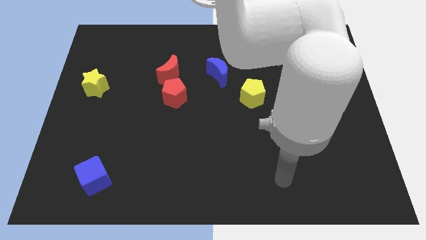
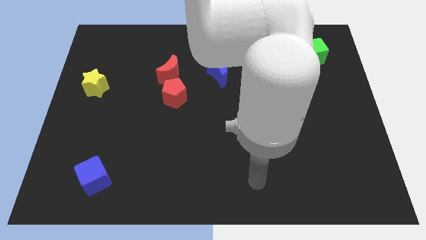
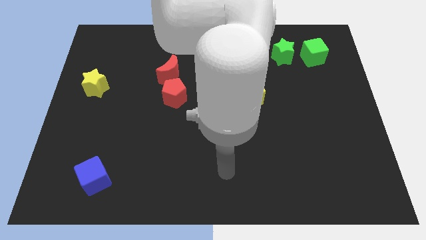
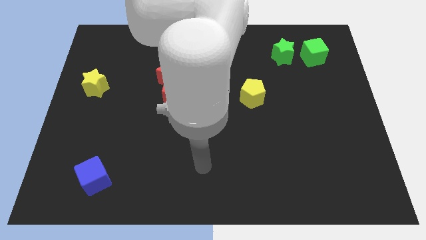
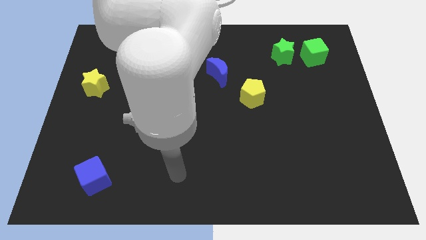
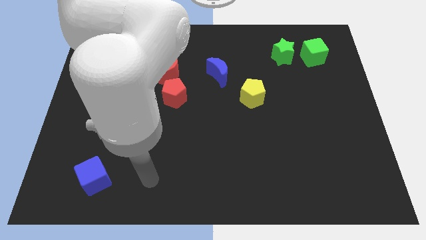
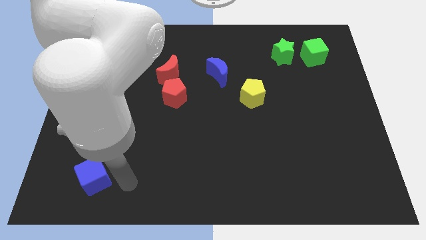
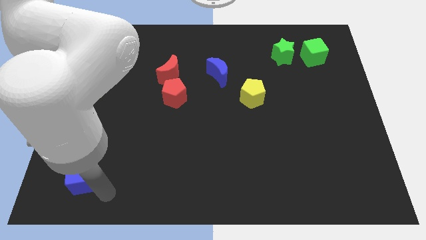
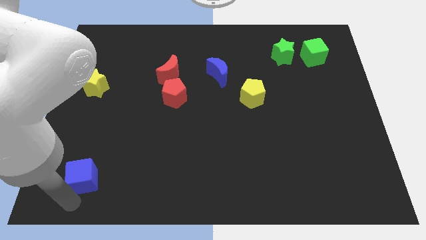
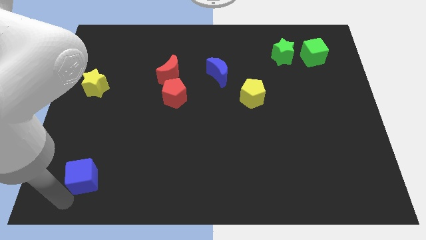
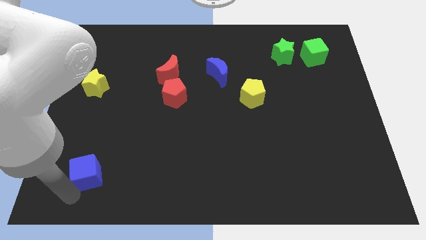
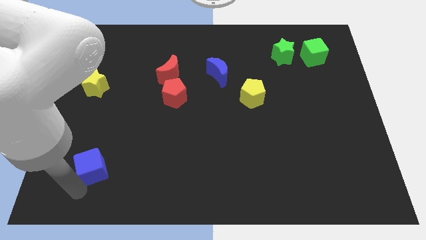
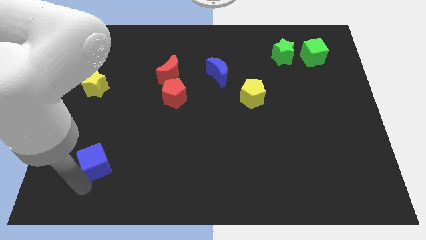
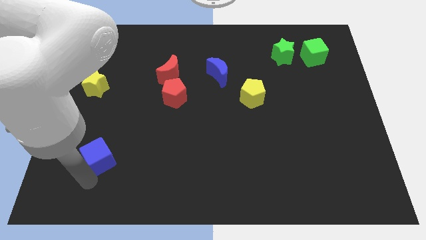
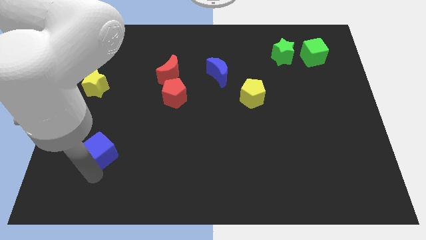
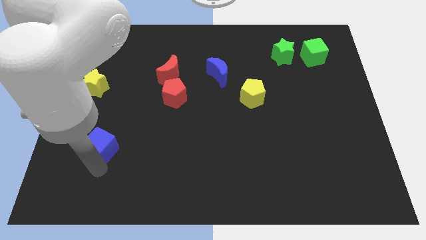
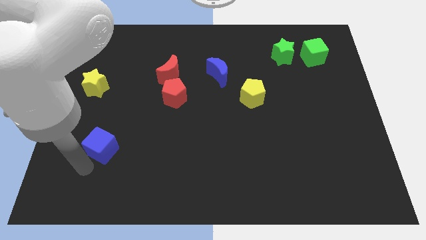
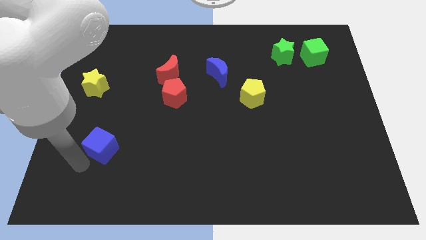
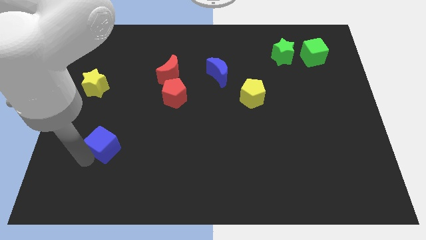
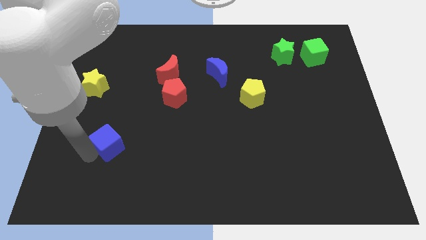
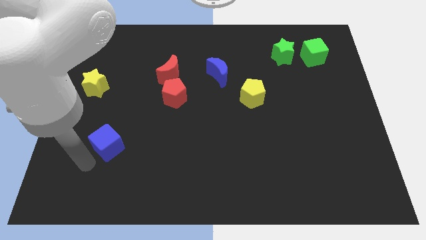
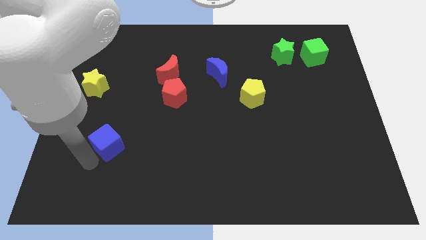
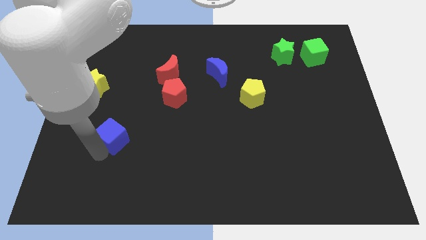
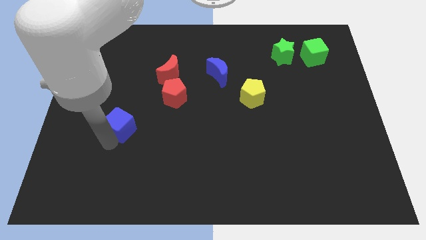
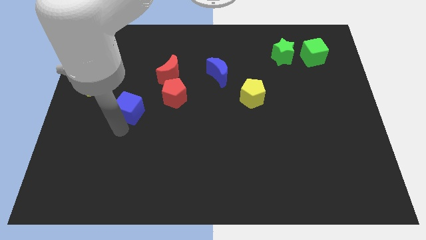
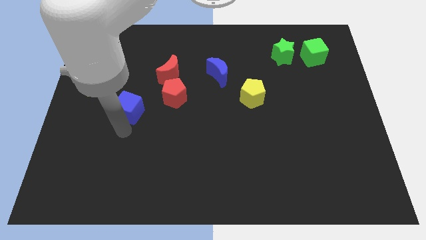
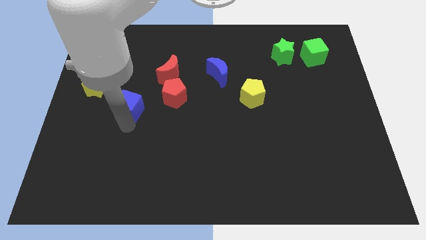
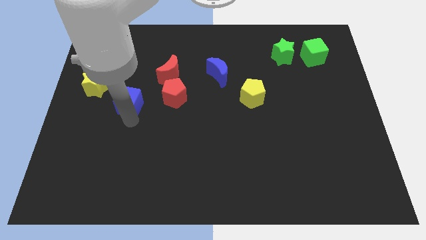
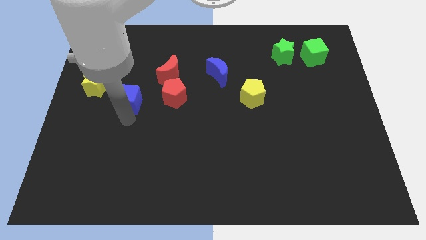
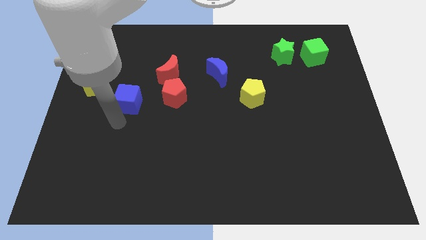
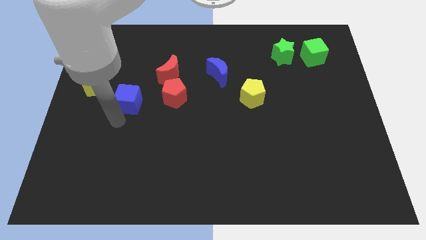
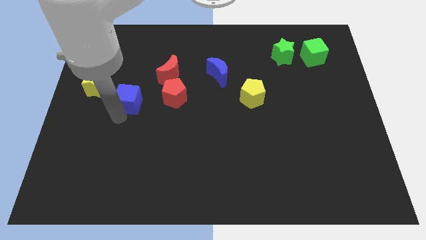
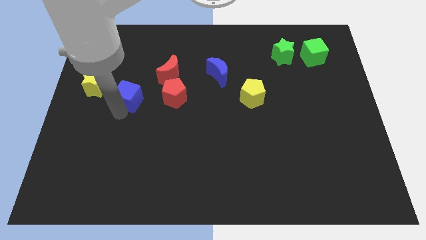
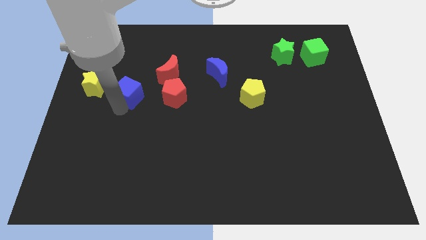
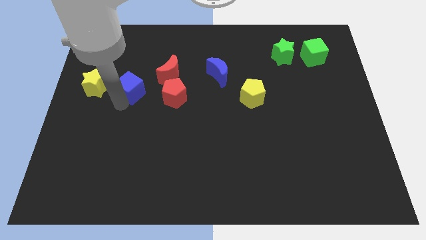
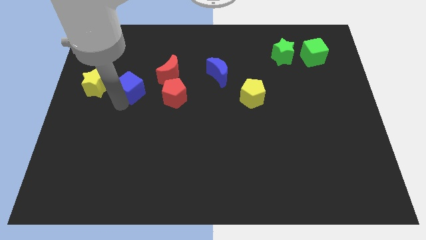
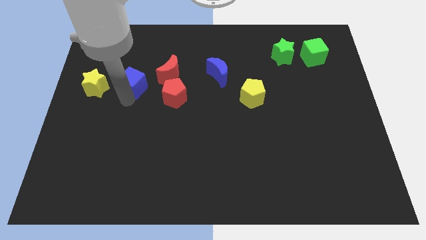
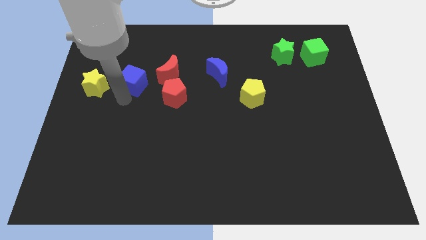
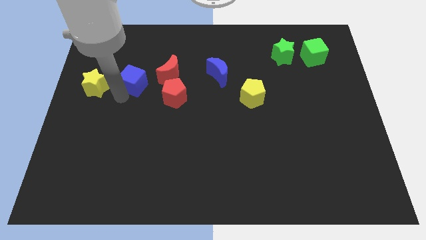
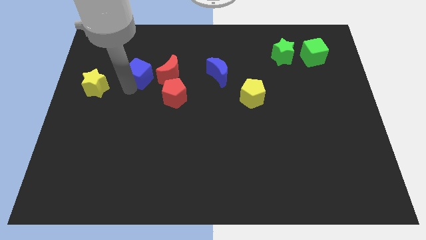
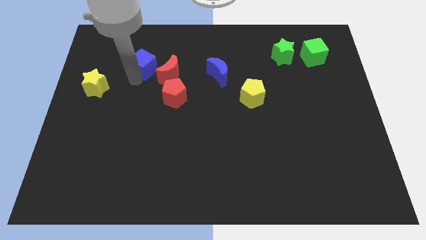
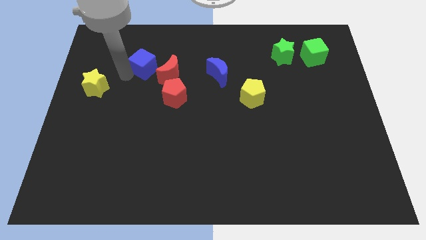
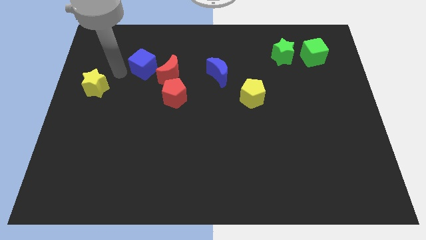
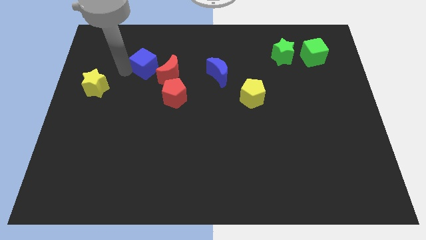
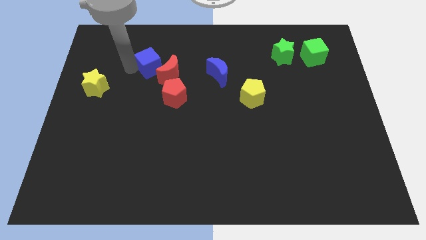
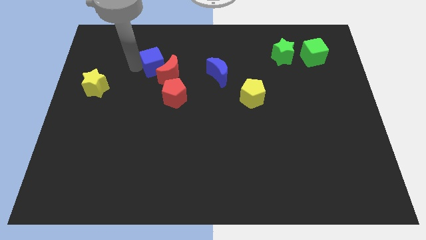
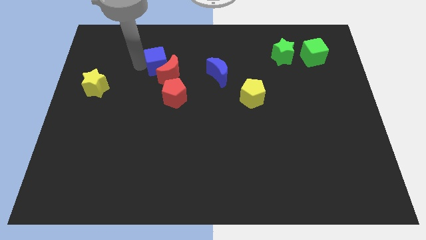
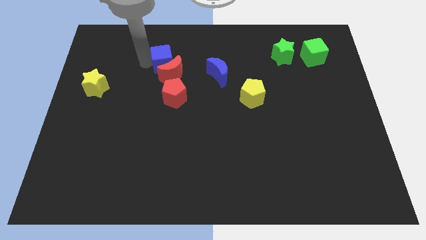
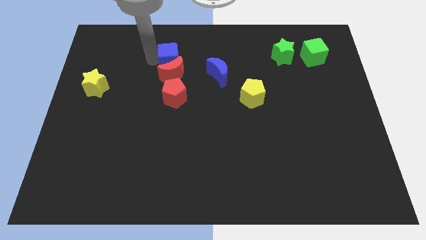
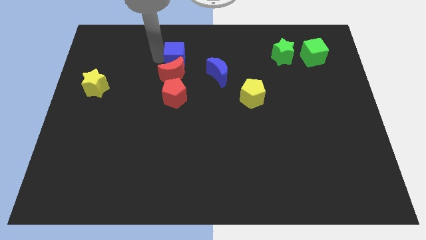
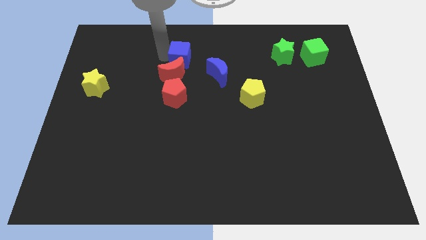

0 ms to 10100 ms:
put the blue cube diagonally up and to the left of the blue moon

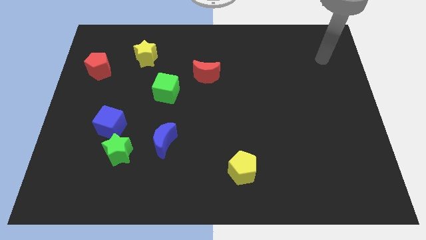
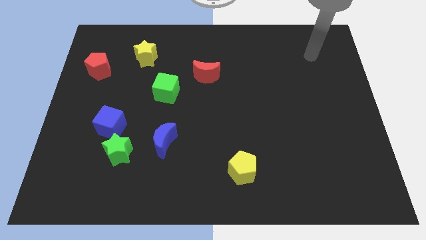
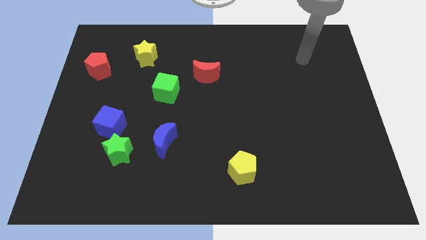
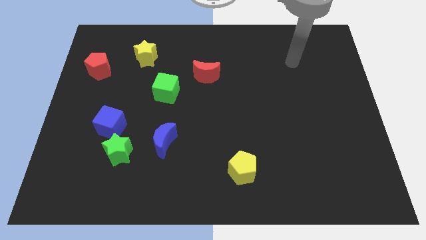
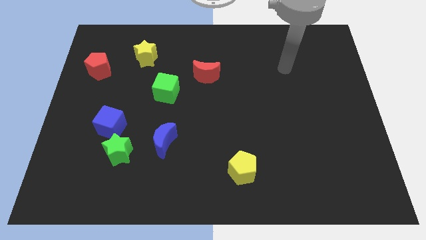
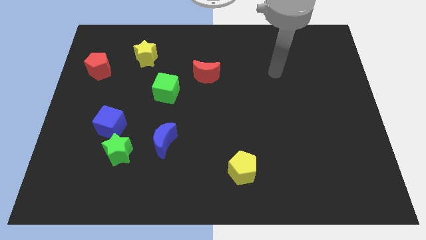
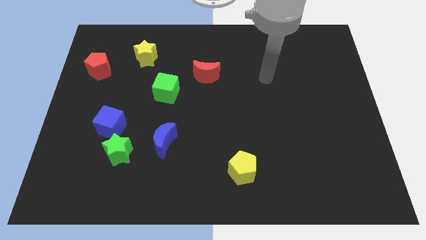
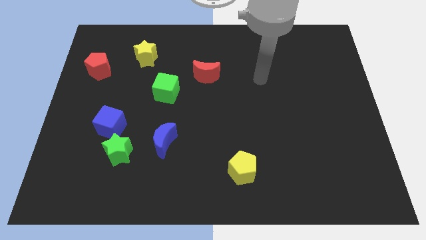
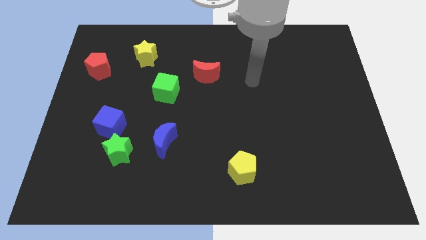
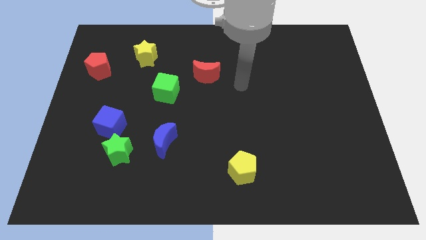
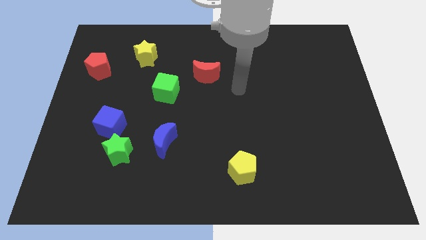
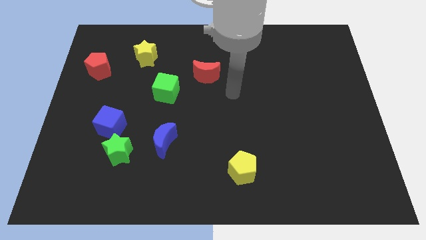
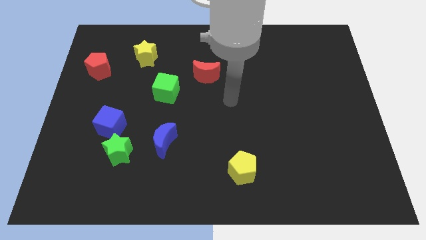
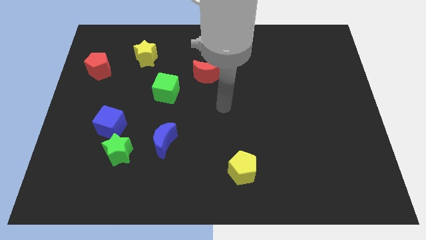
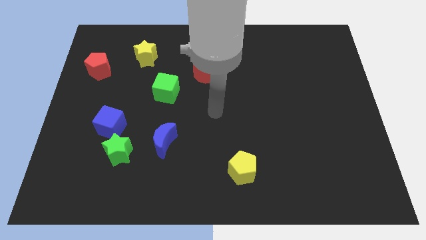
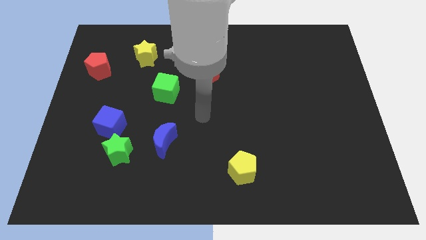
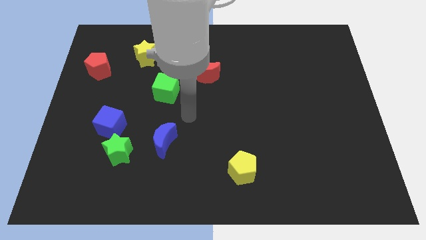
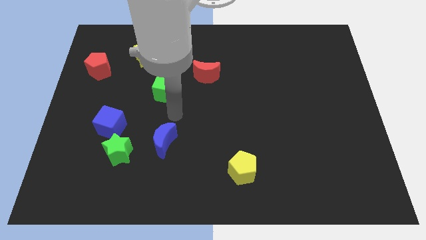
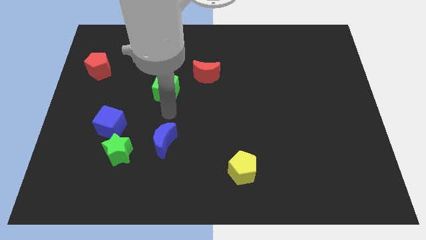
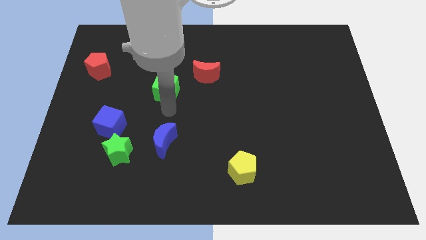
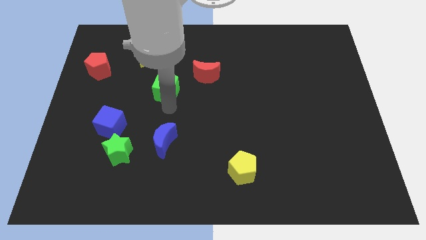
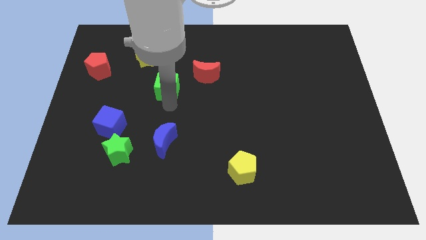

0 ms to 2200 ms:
slide the green cube left of the red moon

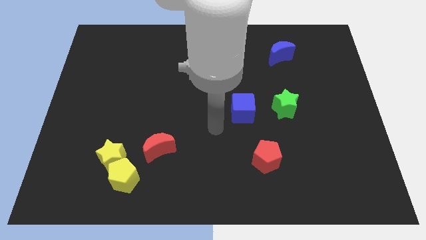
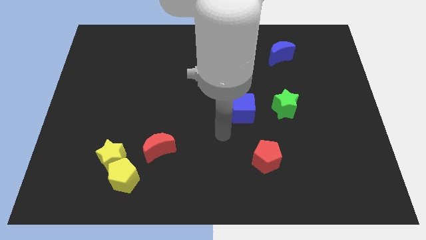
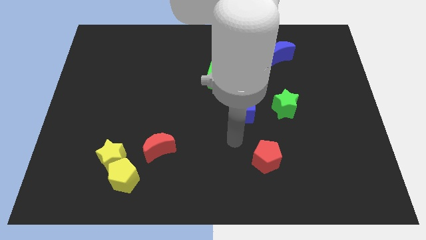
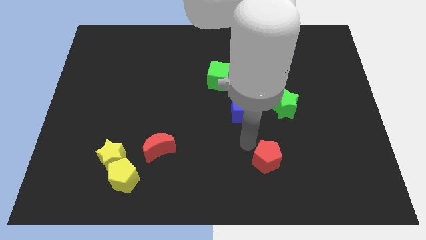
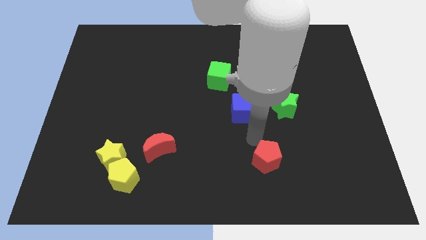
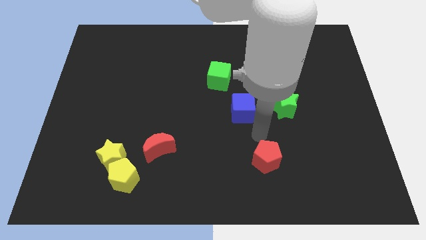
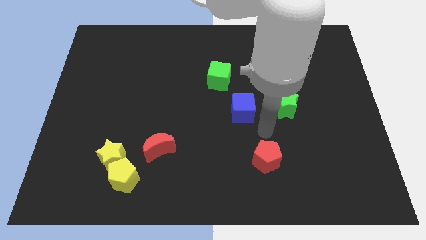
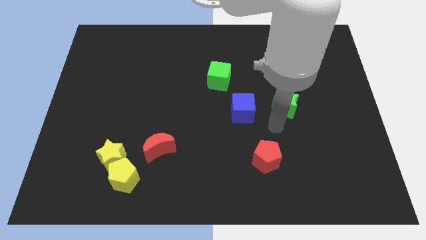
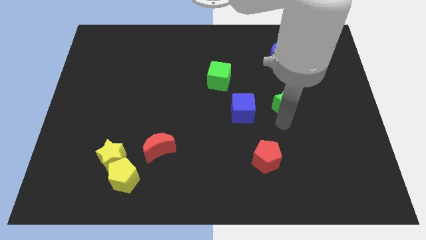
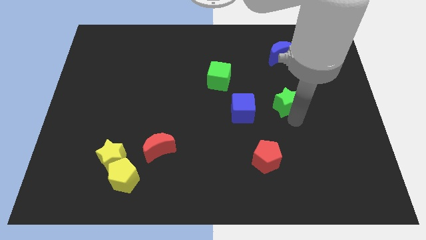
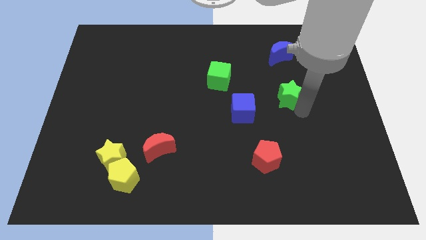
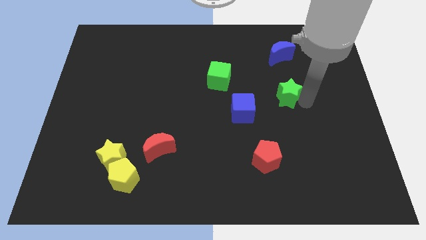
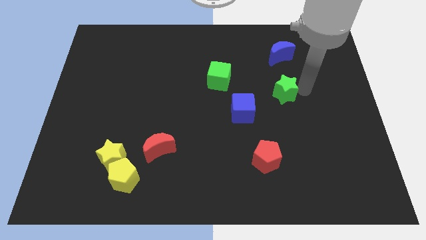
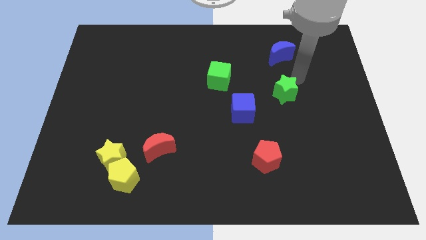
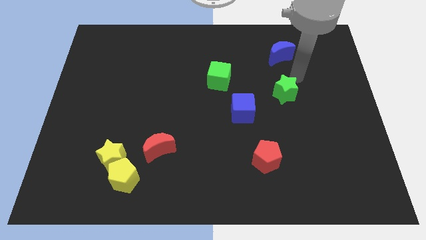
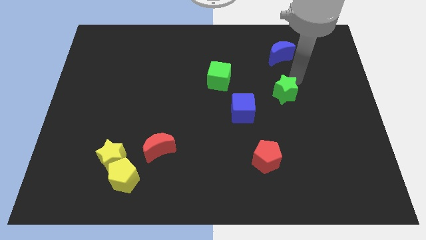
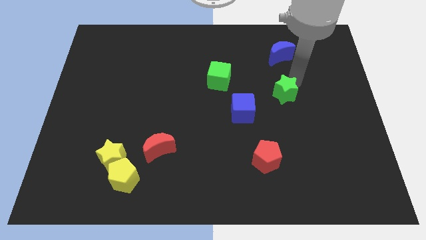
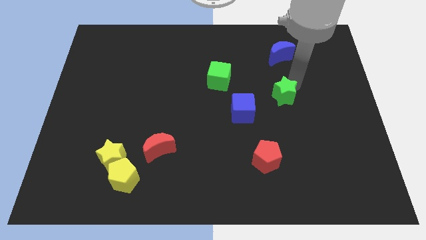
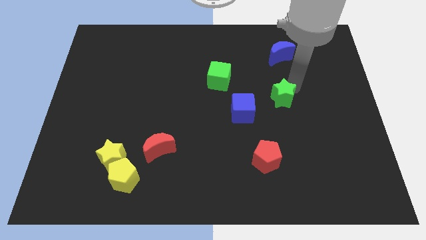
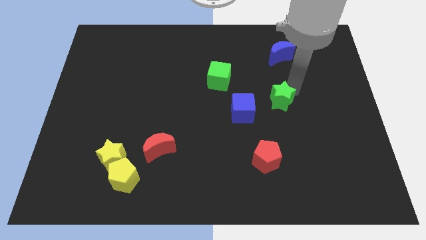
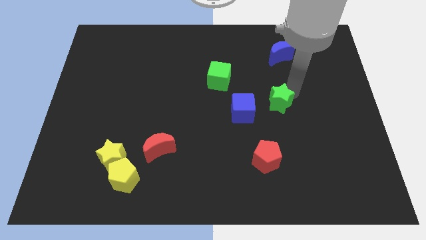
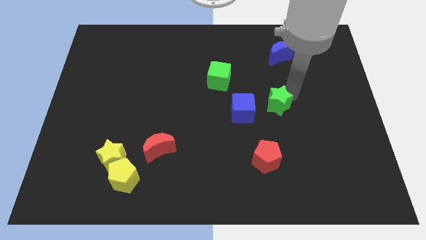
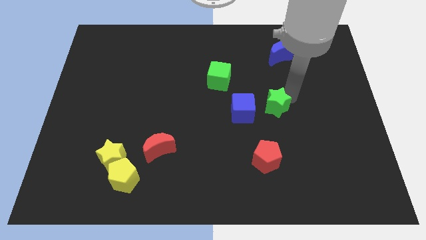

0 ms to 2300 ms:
move the green star above the red pentagon
